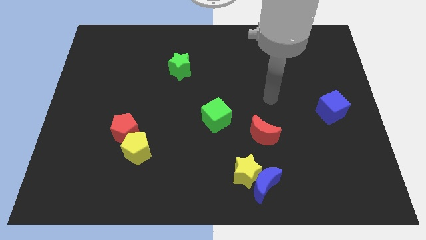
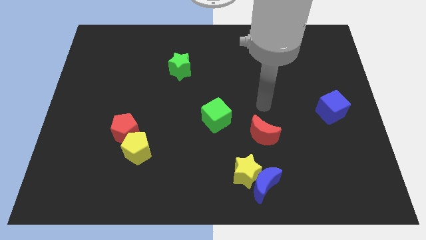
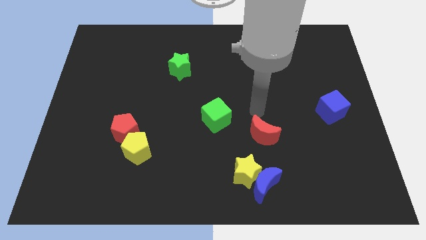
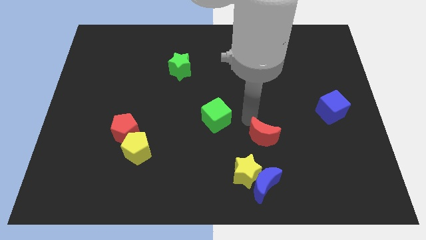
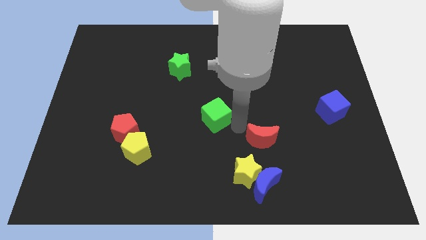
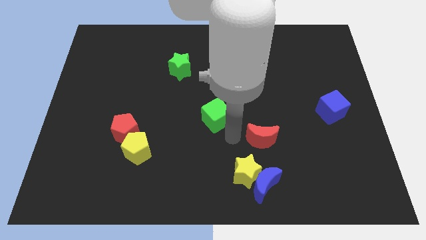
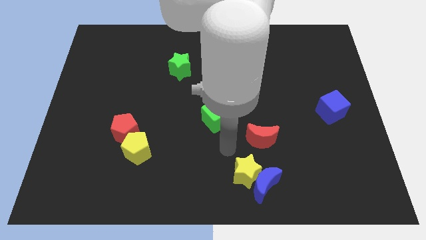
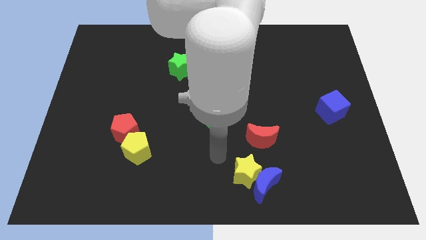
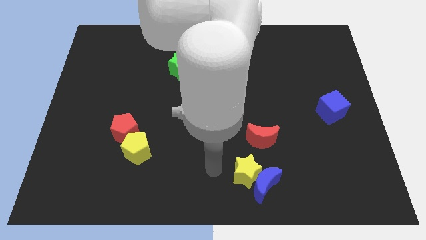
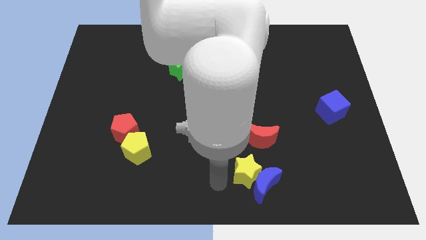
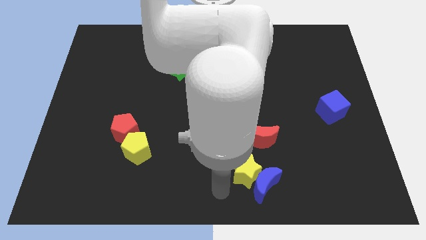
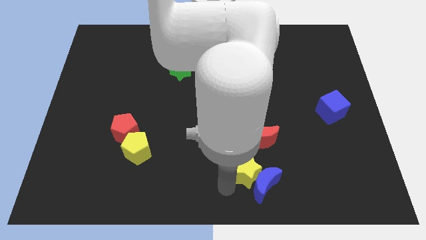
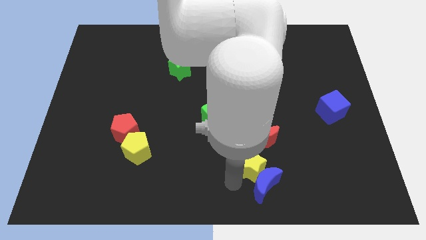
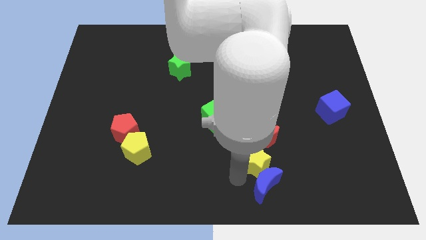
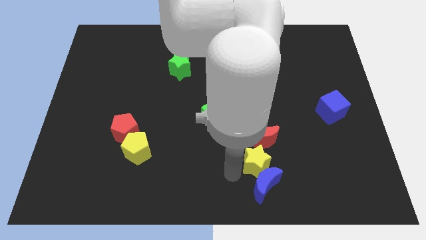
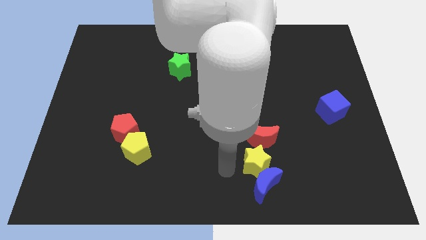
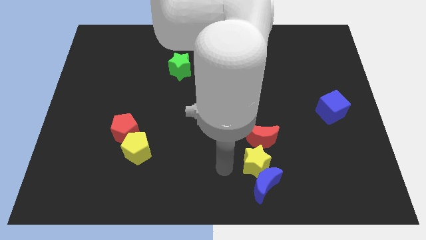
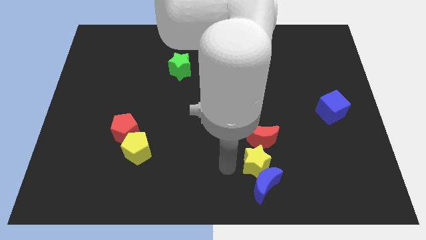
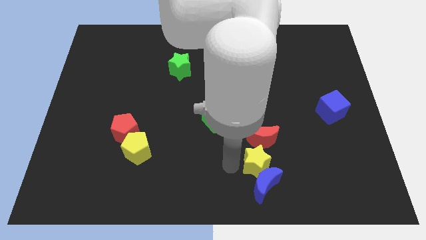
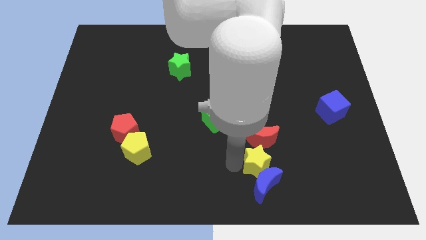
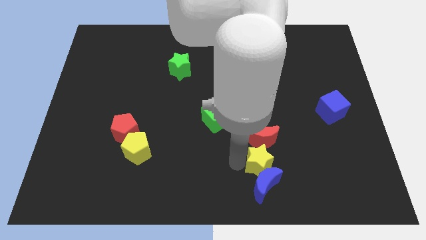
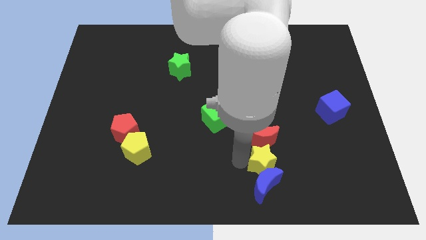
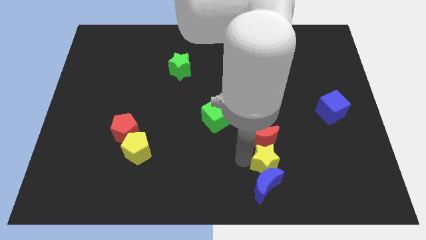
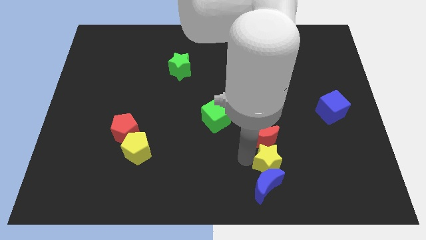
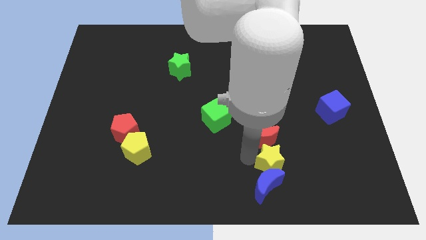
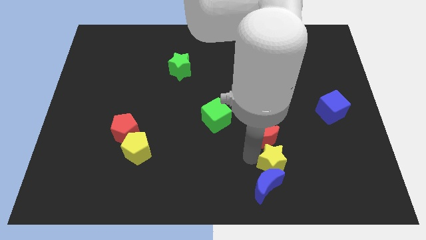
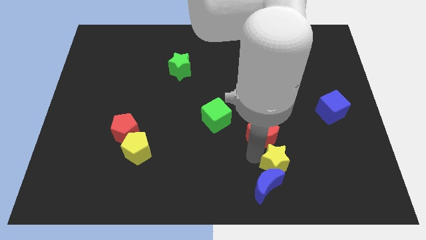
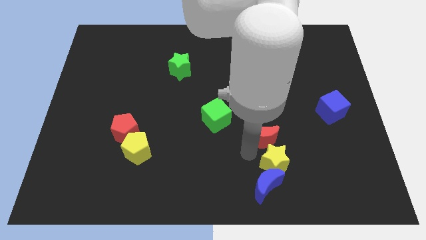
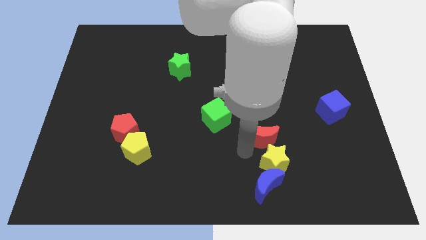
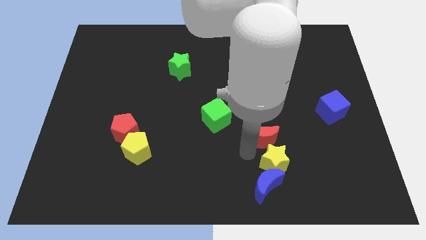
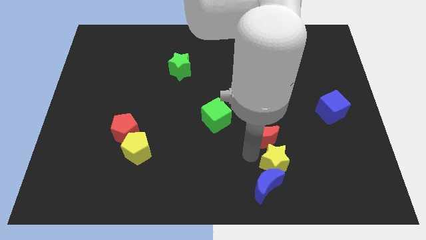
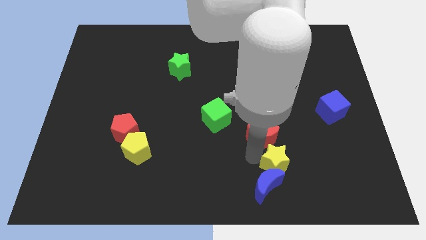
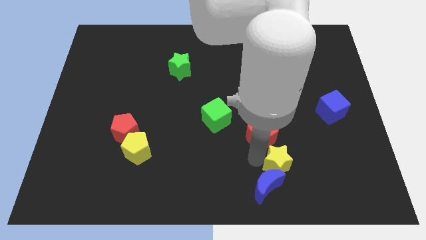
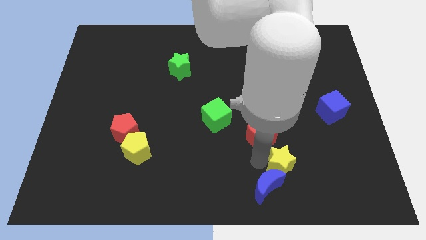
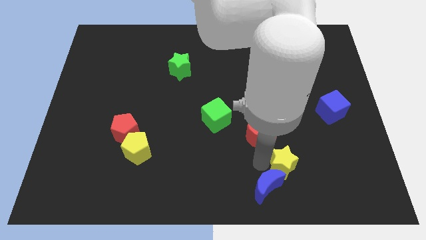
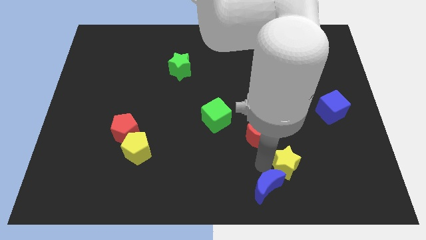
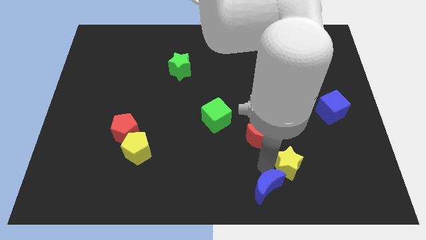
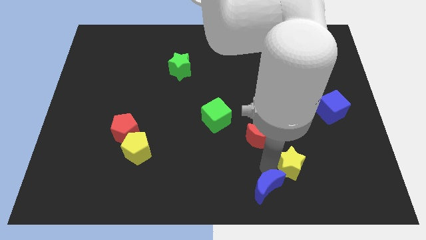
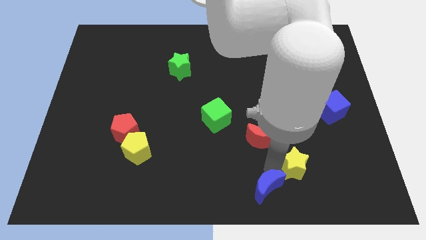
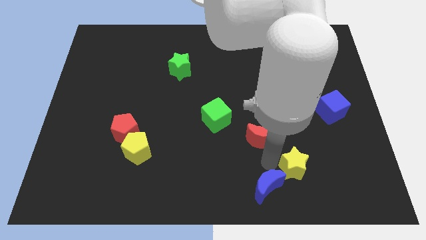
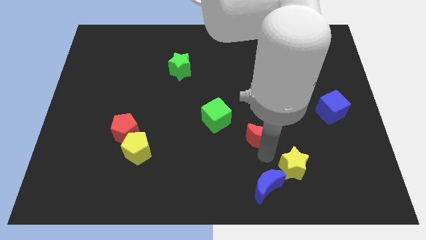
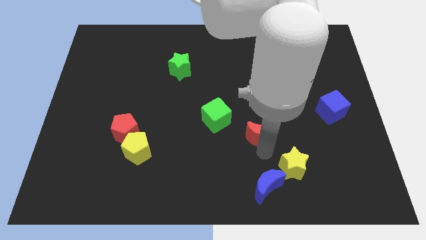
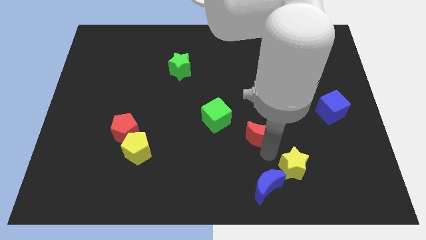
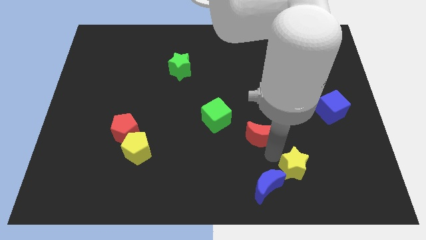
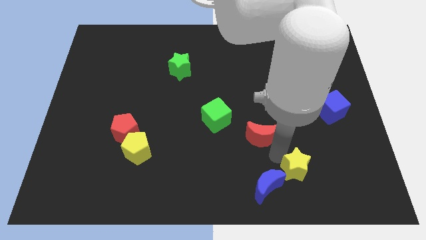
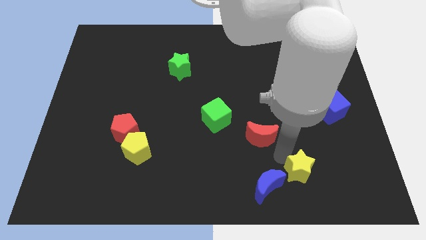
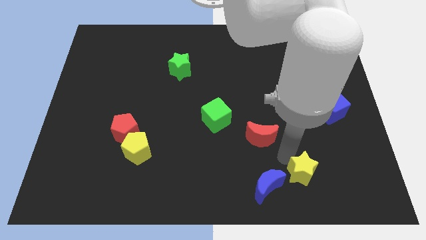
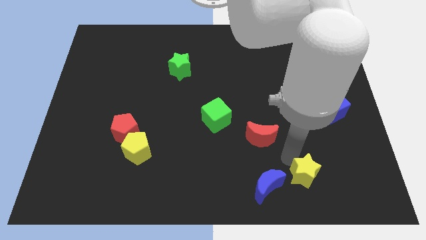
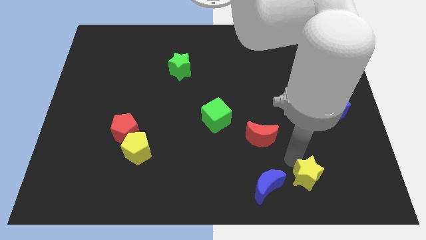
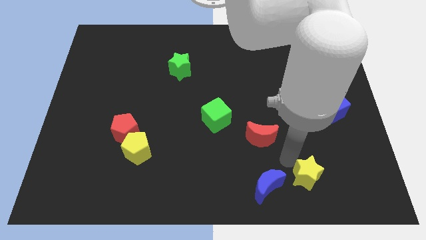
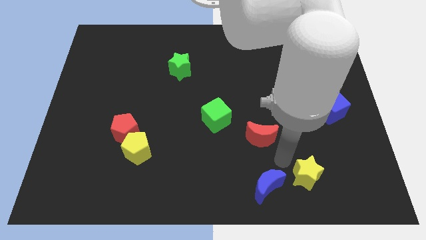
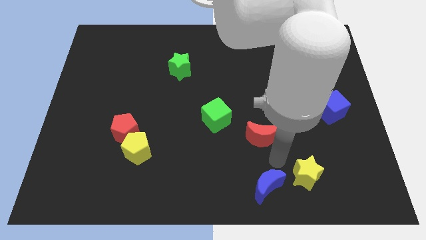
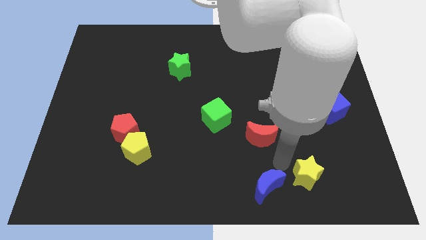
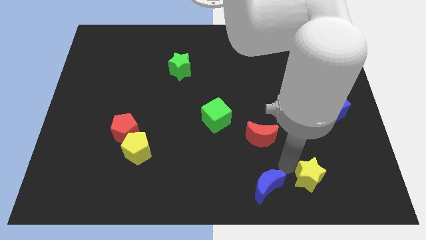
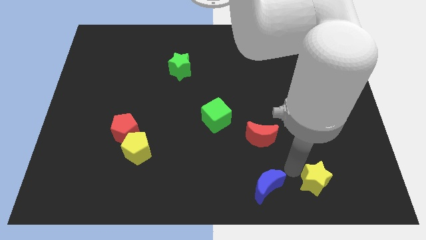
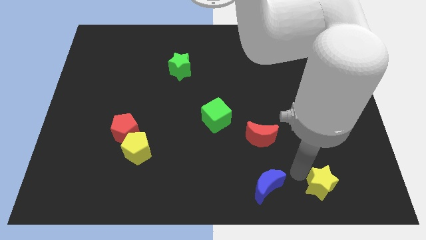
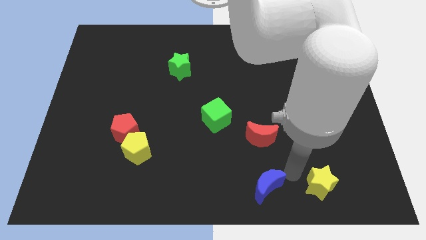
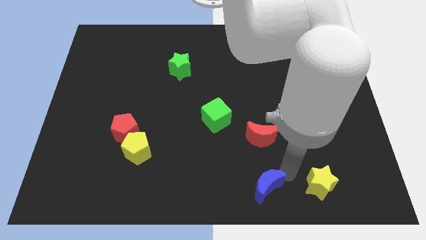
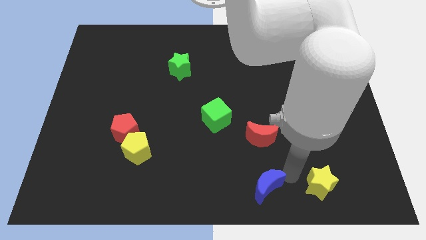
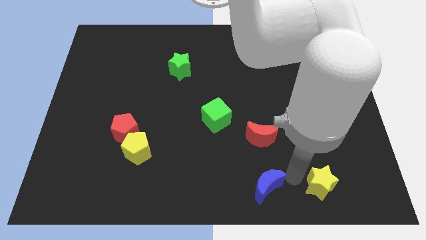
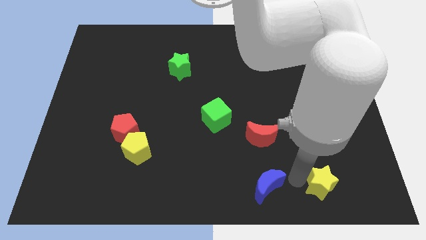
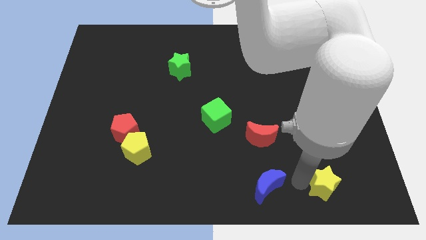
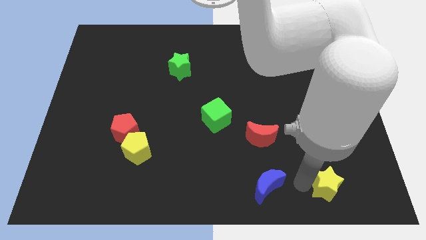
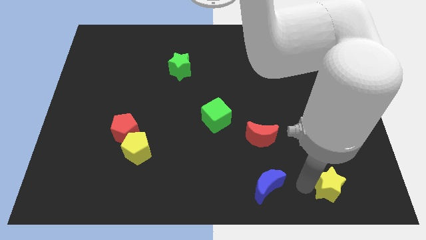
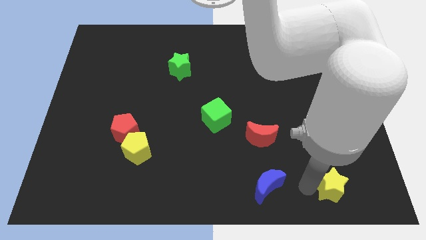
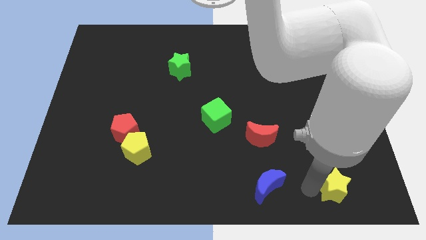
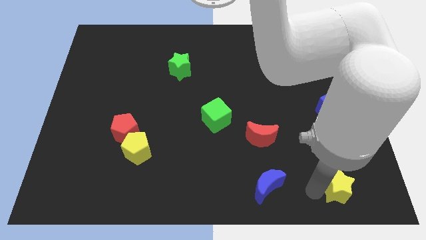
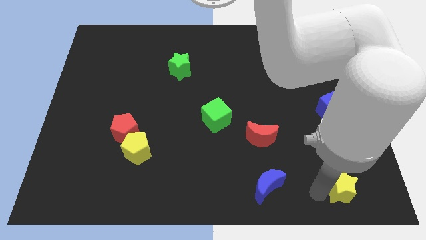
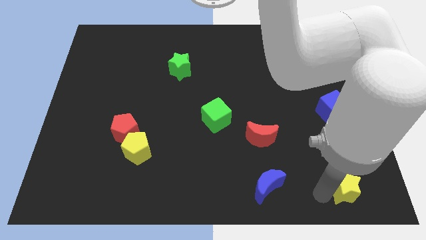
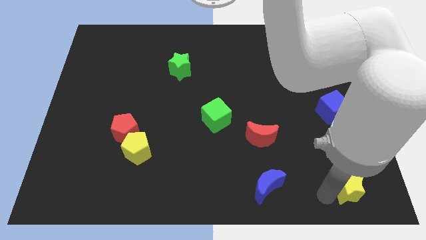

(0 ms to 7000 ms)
move the yellow star to the lower right corner
